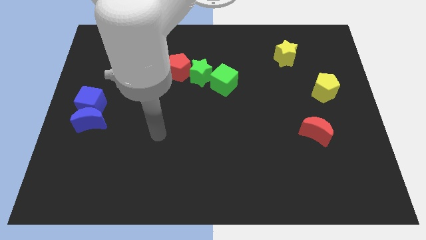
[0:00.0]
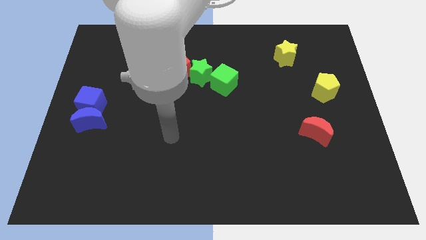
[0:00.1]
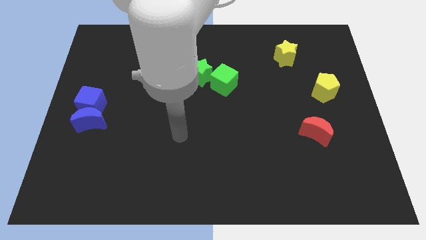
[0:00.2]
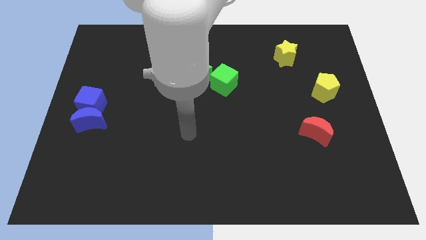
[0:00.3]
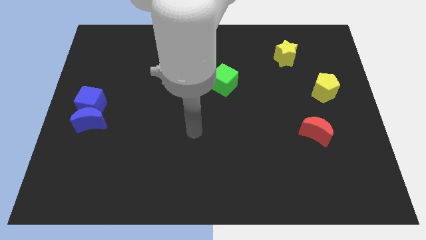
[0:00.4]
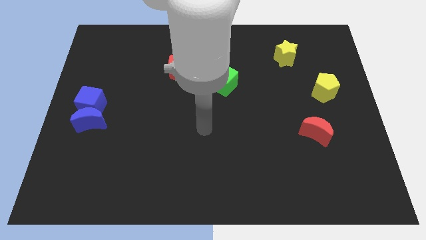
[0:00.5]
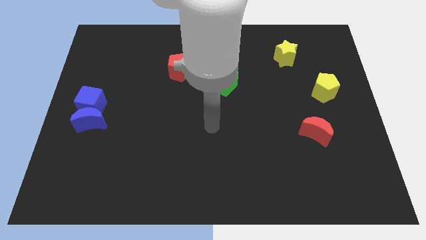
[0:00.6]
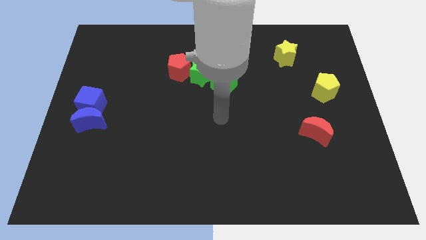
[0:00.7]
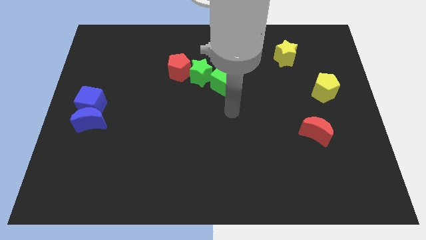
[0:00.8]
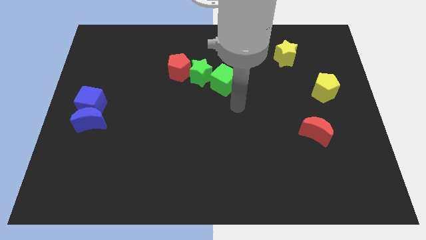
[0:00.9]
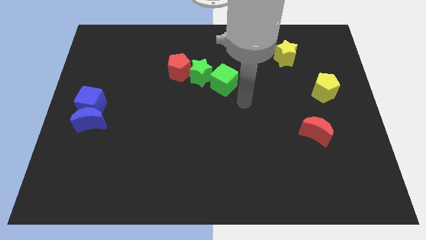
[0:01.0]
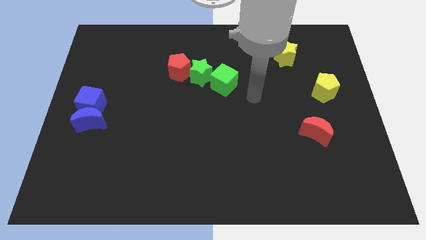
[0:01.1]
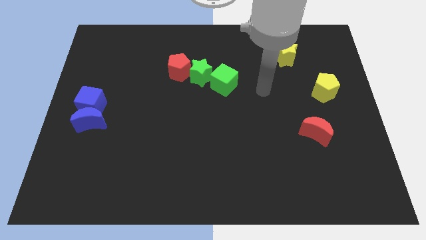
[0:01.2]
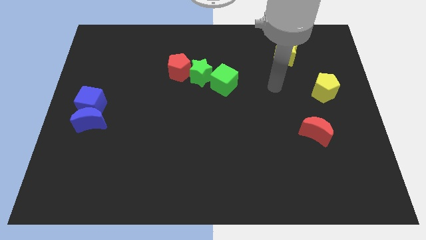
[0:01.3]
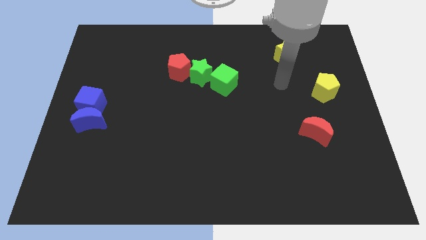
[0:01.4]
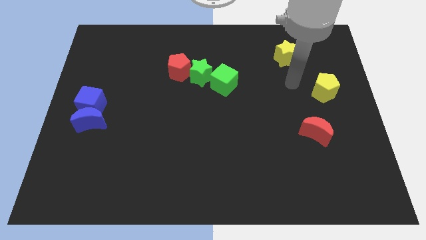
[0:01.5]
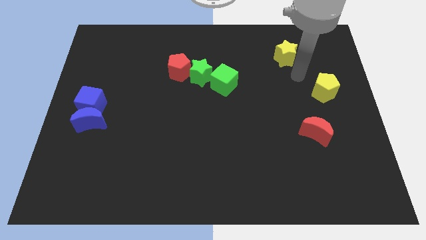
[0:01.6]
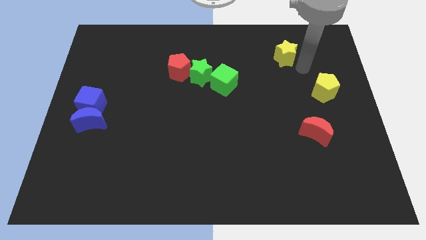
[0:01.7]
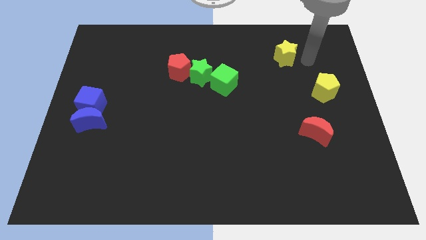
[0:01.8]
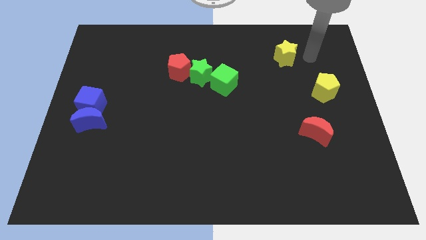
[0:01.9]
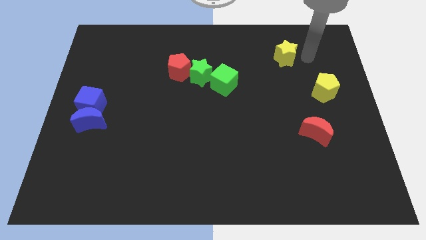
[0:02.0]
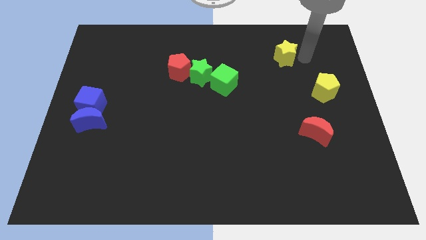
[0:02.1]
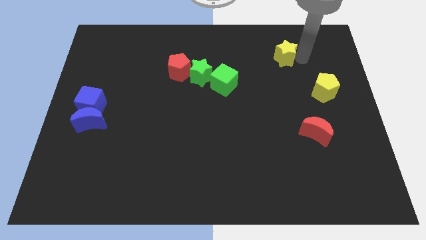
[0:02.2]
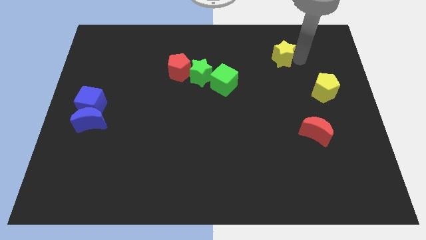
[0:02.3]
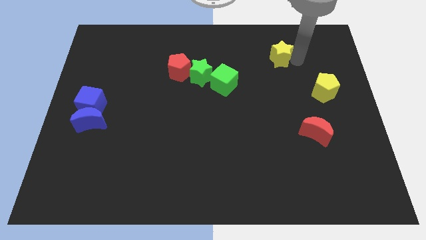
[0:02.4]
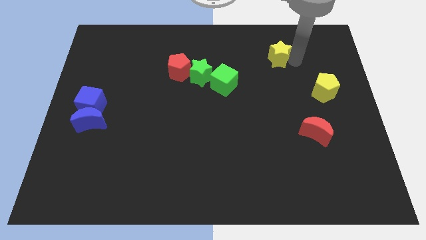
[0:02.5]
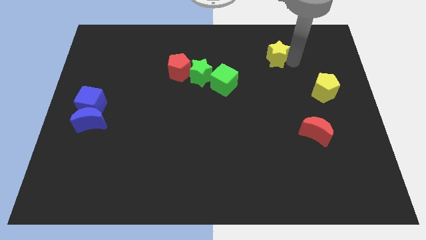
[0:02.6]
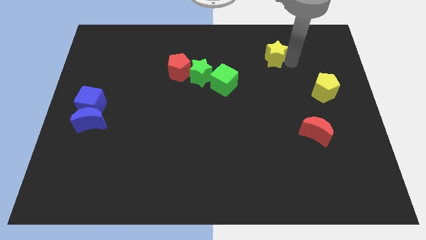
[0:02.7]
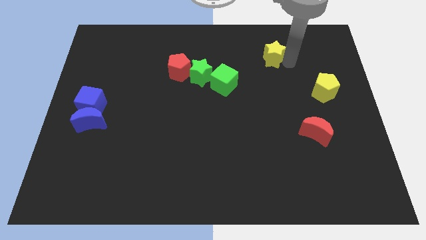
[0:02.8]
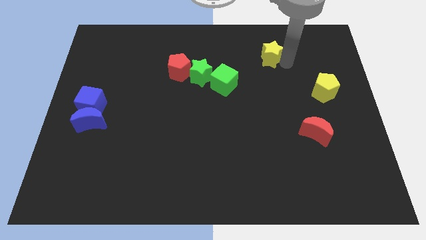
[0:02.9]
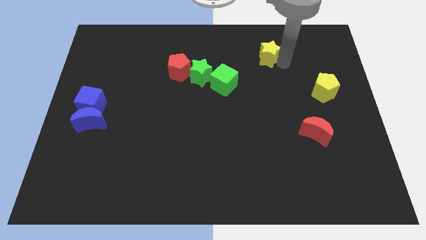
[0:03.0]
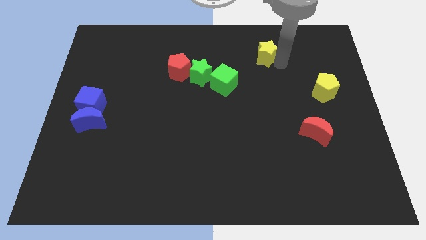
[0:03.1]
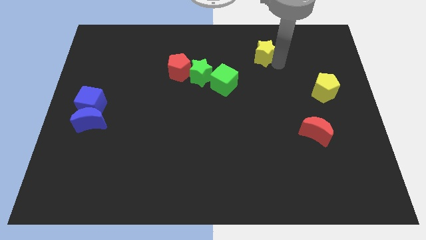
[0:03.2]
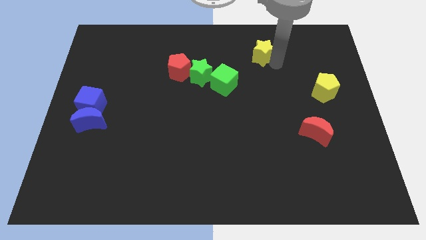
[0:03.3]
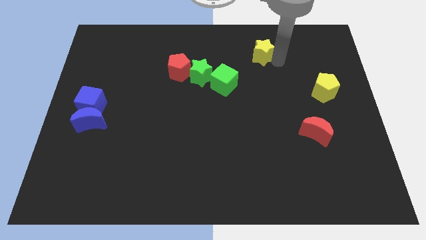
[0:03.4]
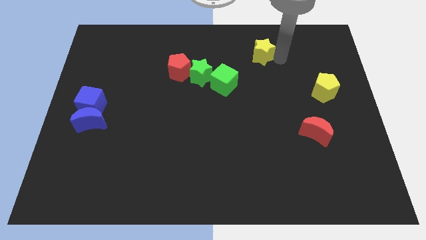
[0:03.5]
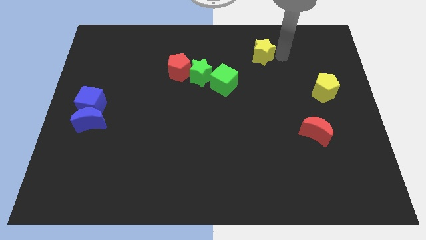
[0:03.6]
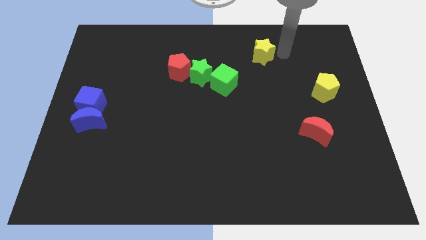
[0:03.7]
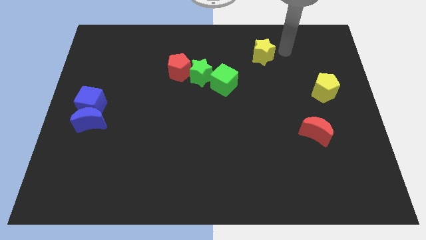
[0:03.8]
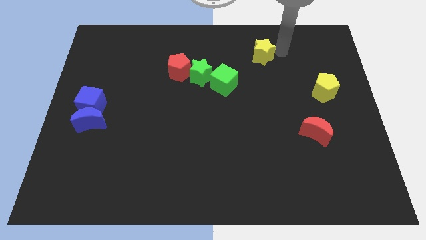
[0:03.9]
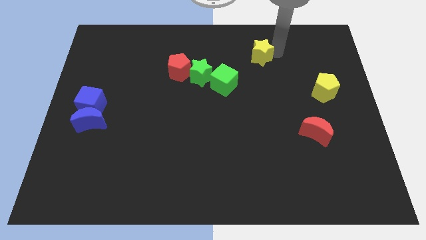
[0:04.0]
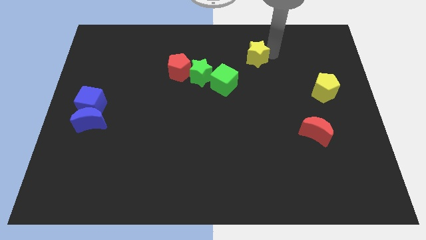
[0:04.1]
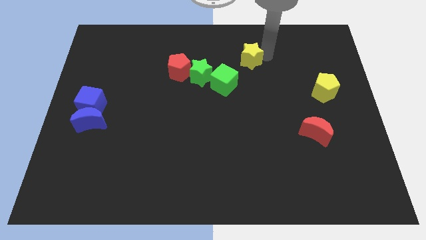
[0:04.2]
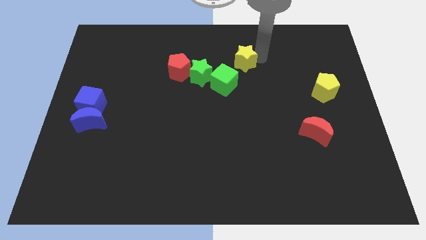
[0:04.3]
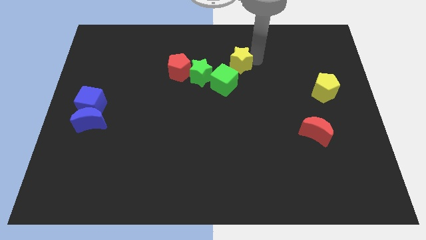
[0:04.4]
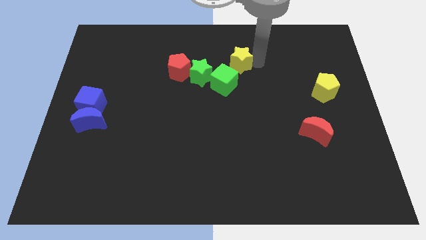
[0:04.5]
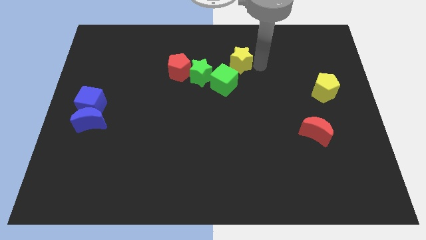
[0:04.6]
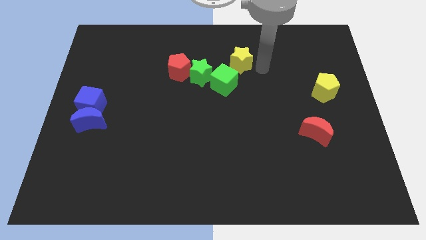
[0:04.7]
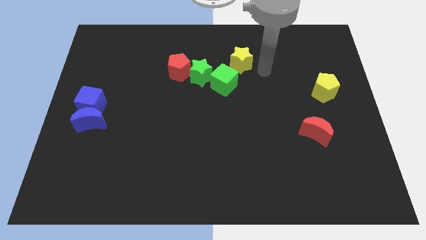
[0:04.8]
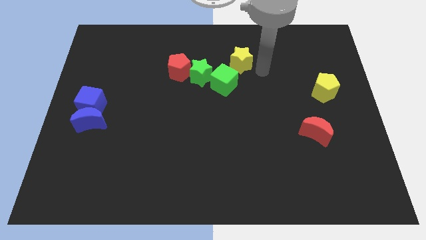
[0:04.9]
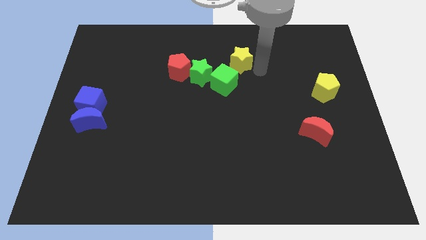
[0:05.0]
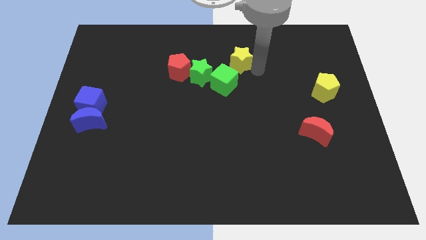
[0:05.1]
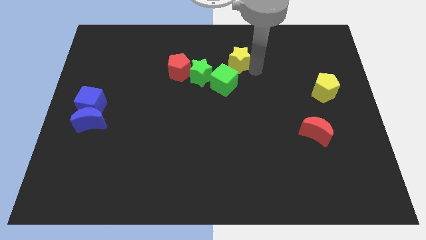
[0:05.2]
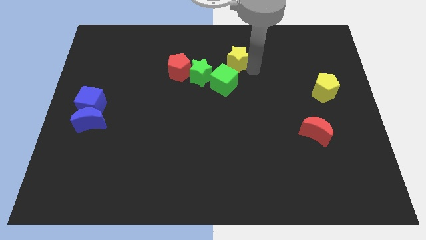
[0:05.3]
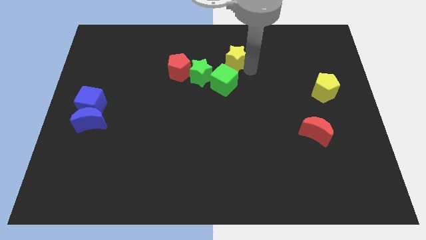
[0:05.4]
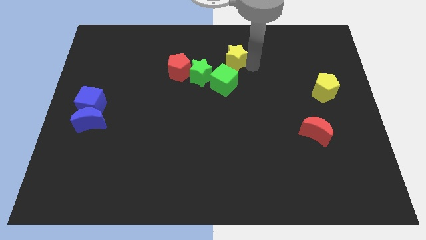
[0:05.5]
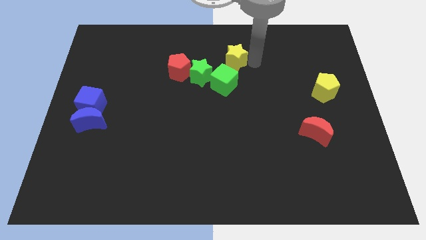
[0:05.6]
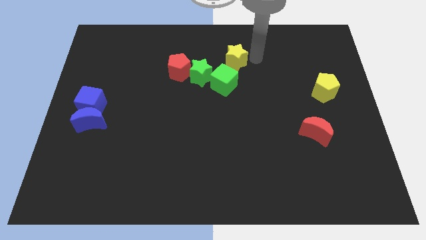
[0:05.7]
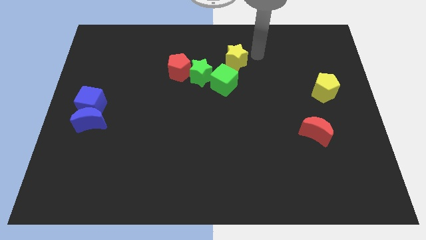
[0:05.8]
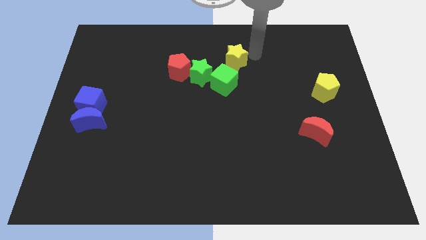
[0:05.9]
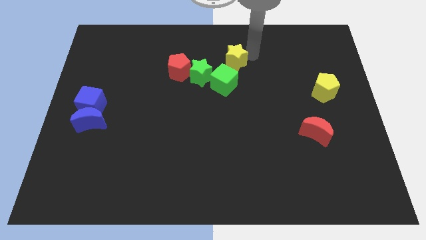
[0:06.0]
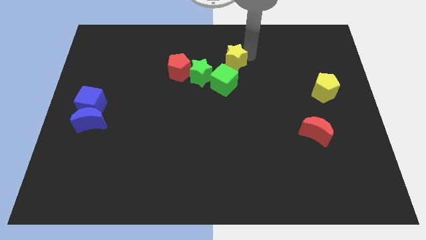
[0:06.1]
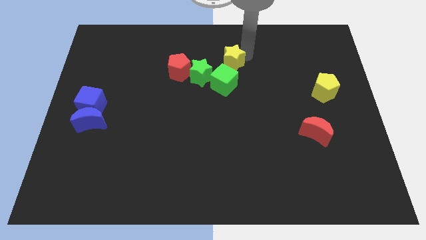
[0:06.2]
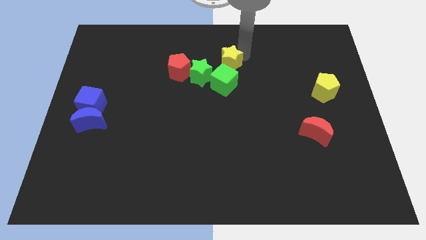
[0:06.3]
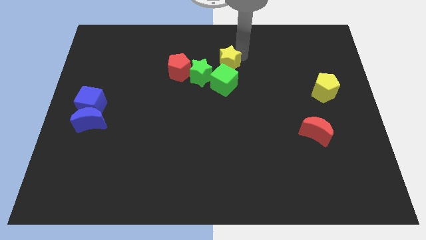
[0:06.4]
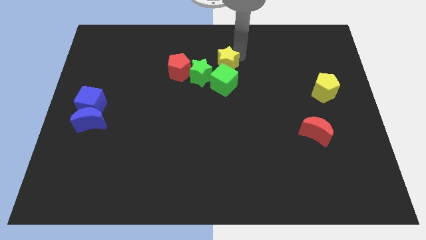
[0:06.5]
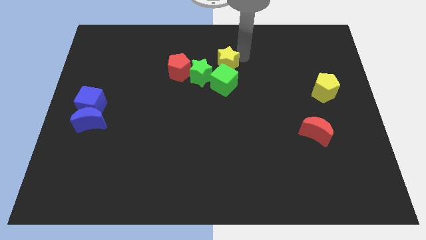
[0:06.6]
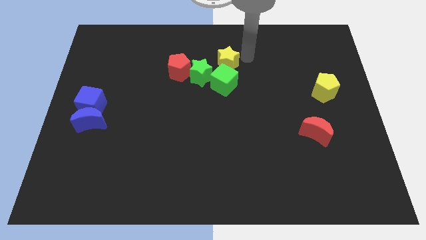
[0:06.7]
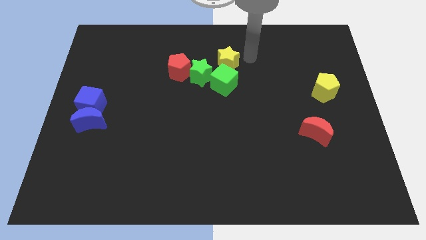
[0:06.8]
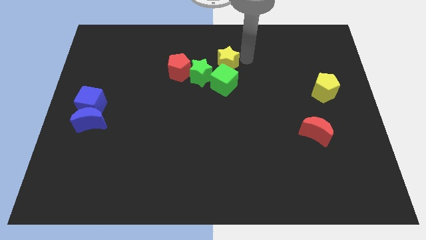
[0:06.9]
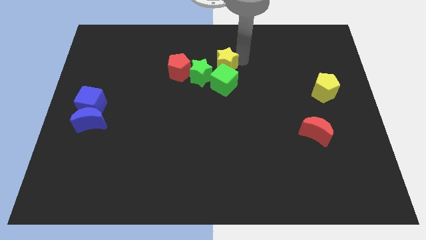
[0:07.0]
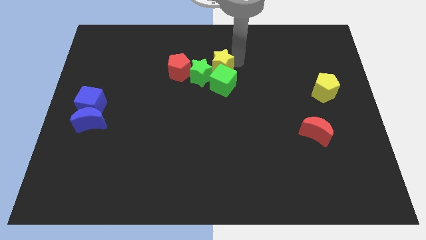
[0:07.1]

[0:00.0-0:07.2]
push the yellow star to the green star

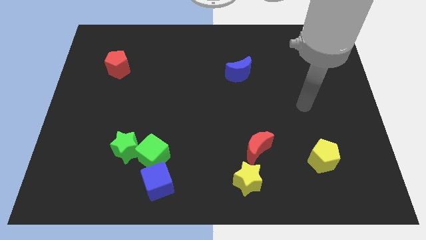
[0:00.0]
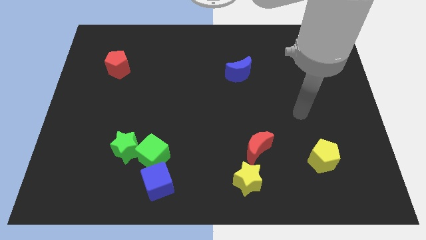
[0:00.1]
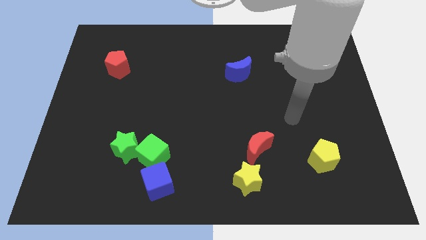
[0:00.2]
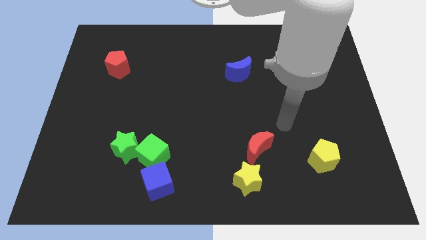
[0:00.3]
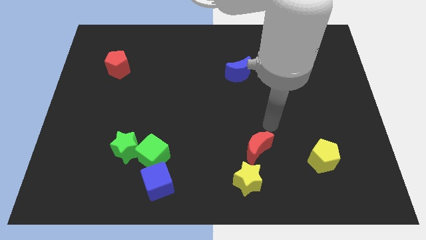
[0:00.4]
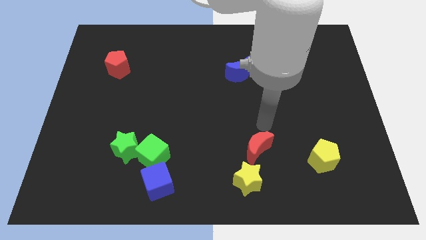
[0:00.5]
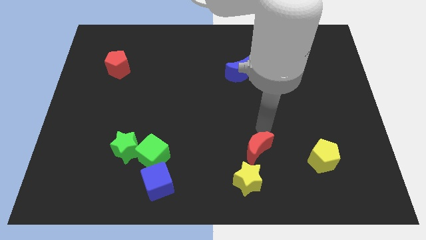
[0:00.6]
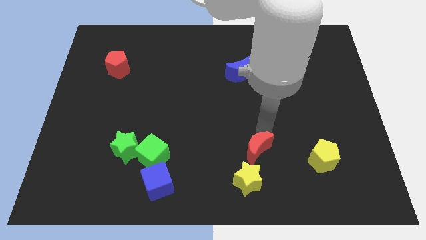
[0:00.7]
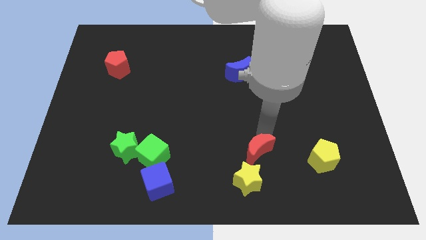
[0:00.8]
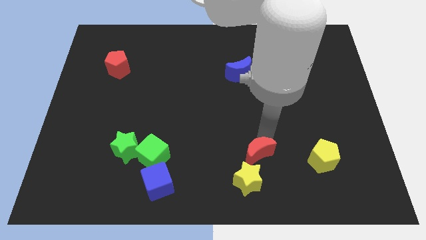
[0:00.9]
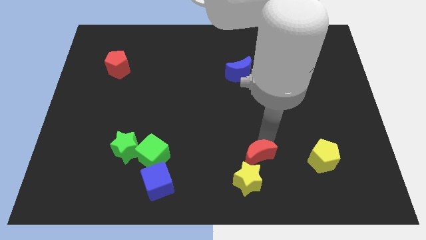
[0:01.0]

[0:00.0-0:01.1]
push the red moon to the yellow star
